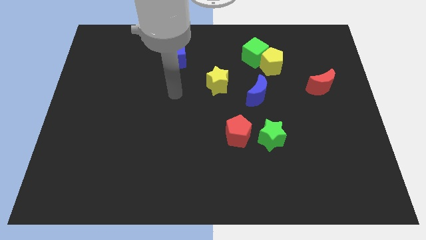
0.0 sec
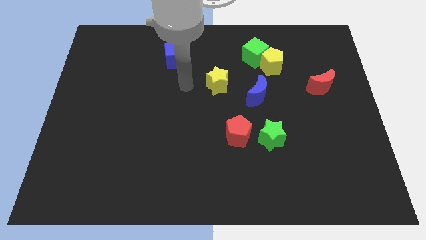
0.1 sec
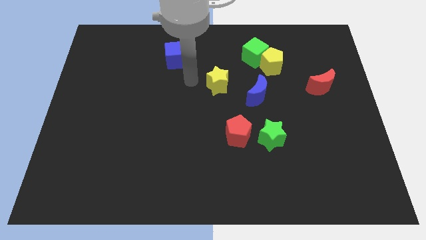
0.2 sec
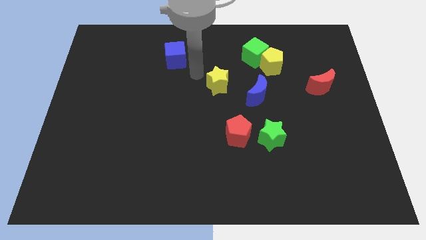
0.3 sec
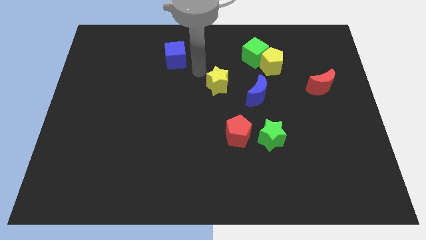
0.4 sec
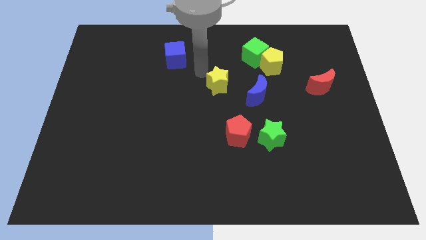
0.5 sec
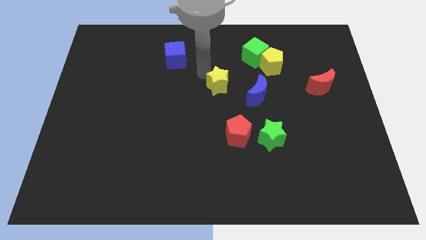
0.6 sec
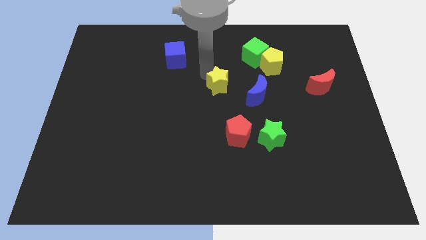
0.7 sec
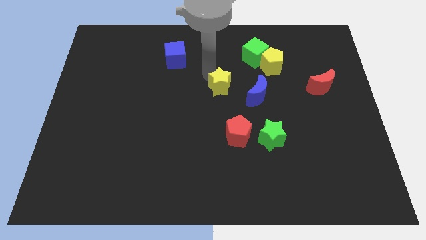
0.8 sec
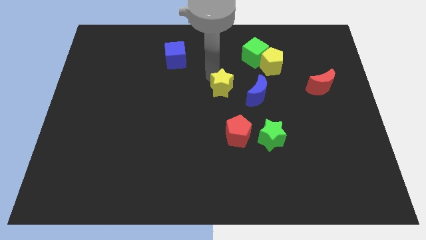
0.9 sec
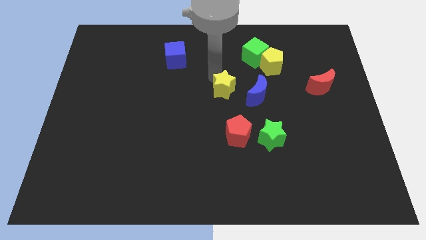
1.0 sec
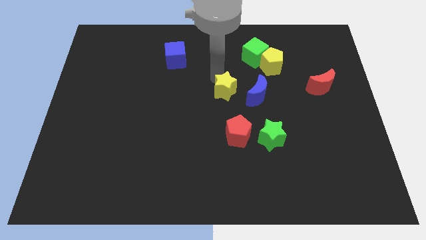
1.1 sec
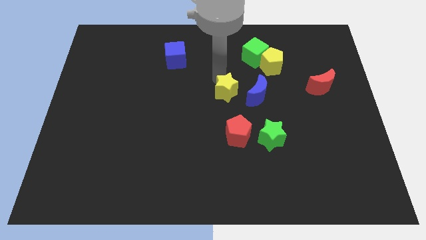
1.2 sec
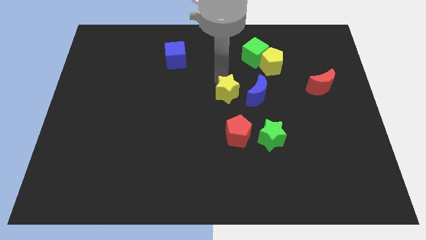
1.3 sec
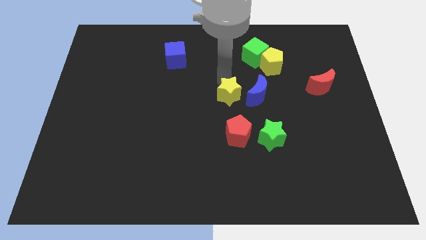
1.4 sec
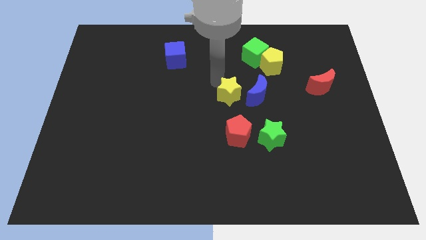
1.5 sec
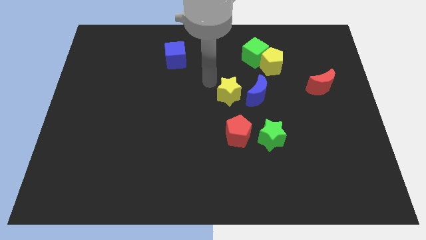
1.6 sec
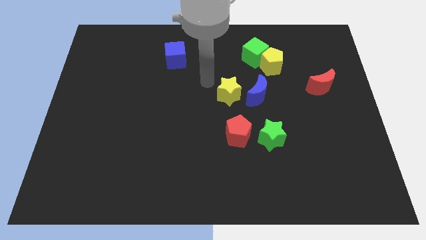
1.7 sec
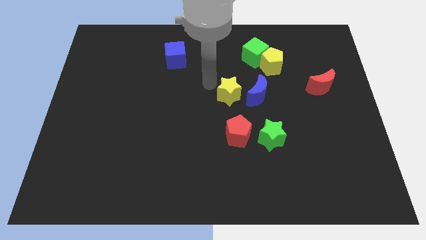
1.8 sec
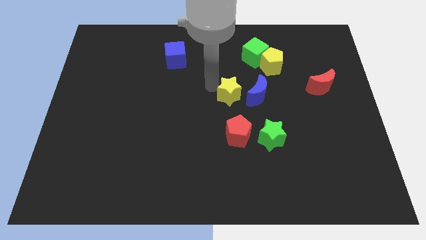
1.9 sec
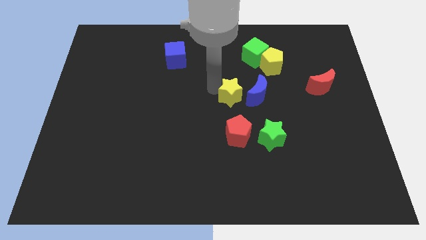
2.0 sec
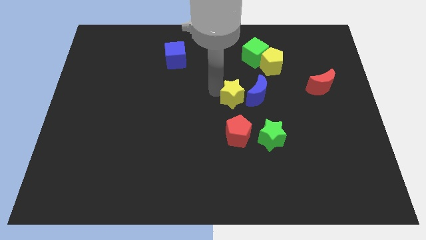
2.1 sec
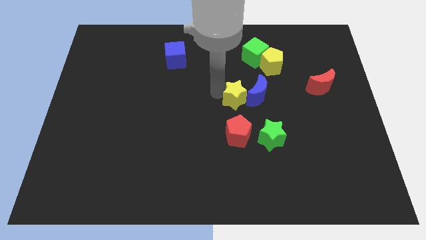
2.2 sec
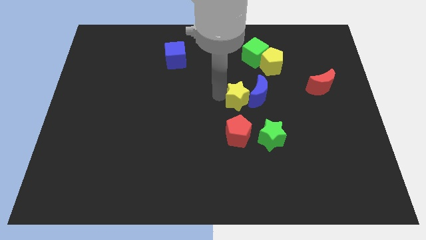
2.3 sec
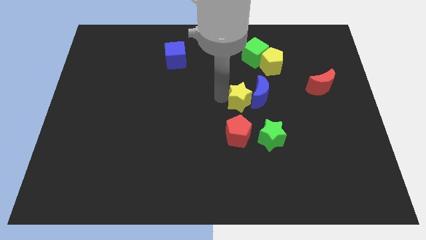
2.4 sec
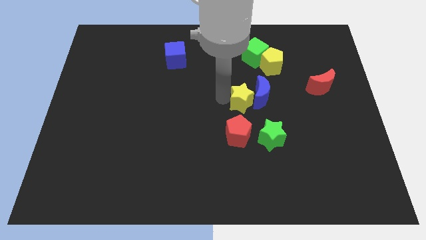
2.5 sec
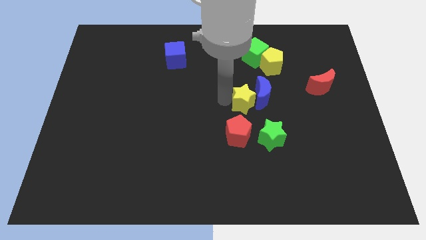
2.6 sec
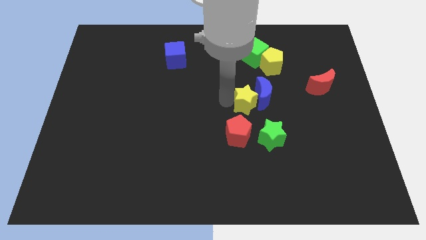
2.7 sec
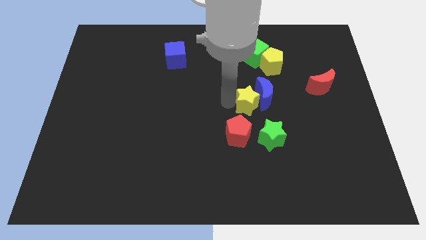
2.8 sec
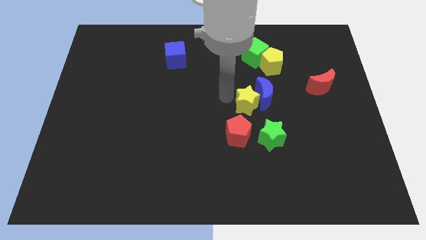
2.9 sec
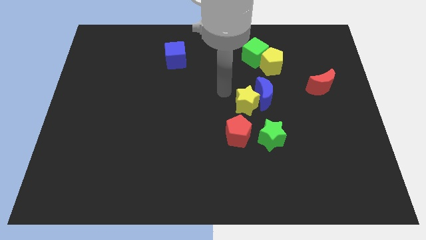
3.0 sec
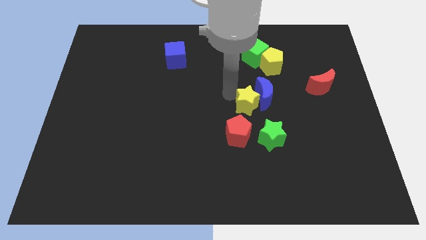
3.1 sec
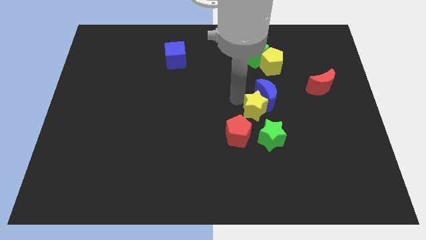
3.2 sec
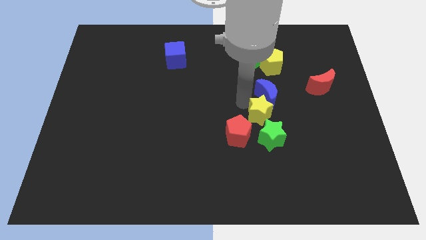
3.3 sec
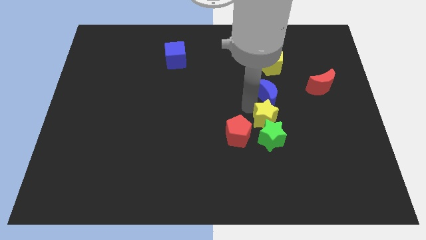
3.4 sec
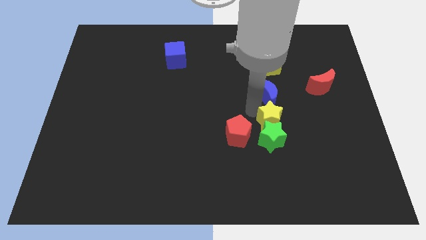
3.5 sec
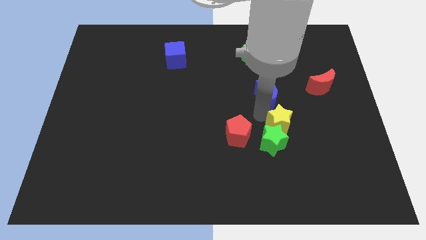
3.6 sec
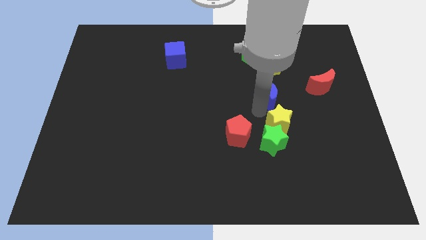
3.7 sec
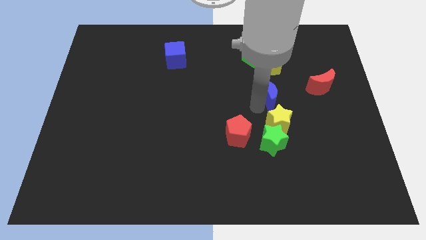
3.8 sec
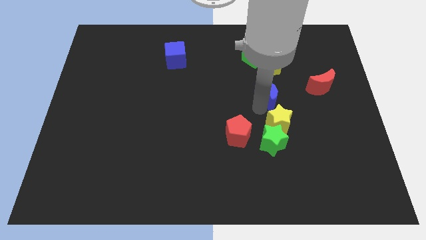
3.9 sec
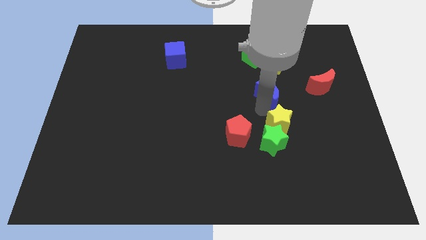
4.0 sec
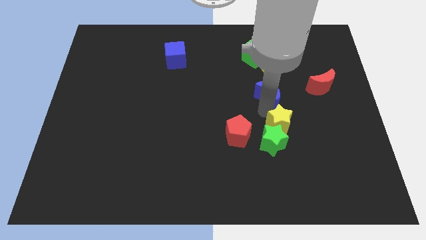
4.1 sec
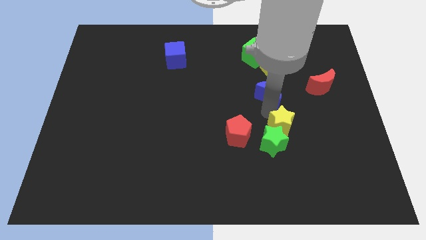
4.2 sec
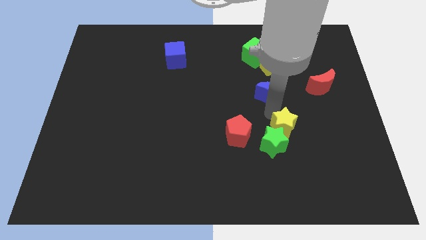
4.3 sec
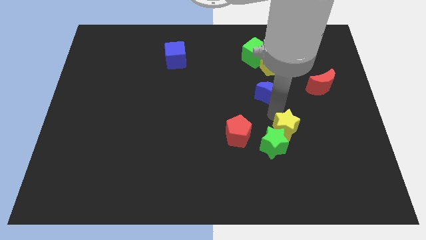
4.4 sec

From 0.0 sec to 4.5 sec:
move the yellow star down and then right

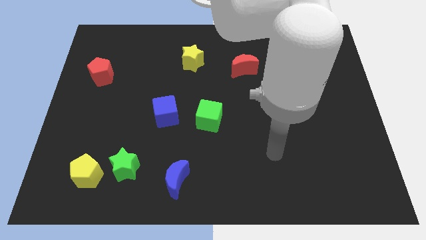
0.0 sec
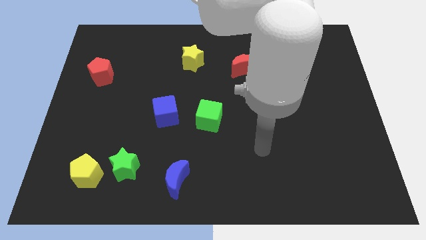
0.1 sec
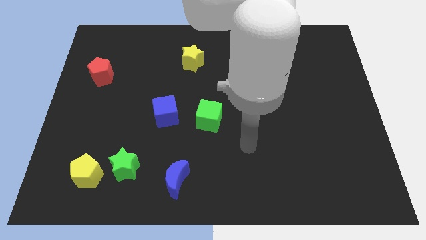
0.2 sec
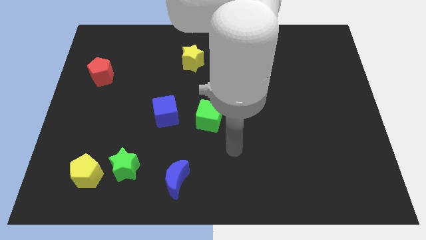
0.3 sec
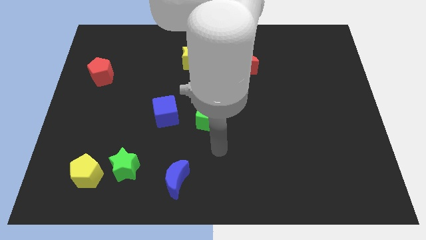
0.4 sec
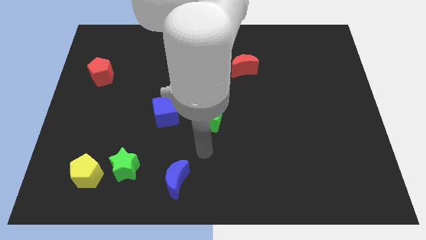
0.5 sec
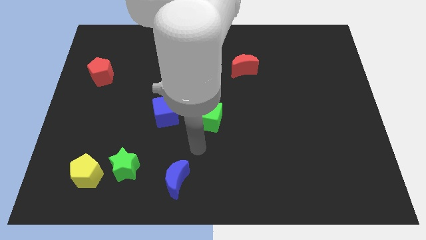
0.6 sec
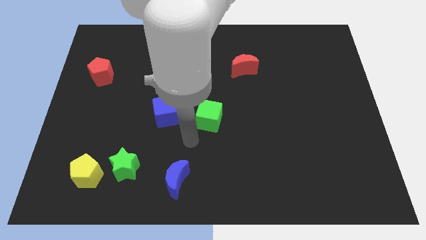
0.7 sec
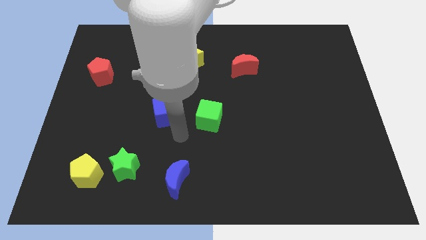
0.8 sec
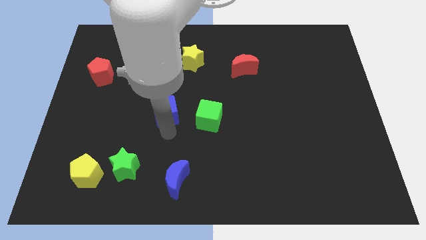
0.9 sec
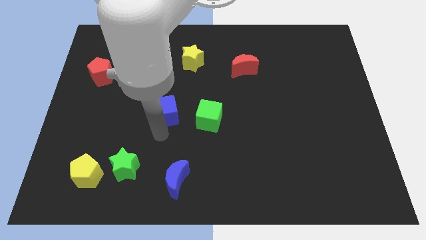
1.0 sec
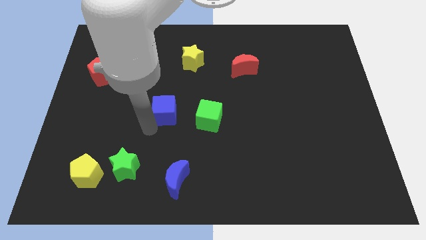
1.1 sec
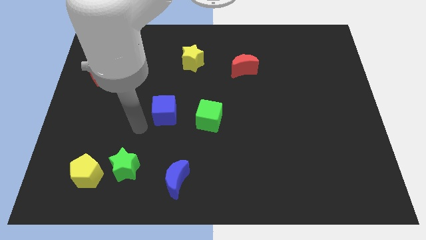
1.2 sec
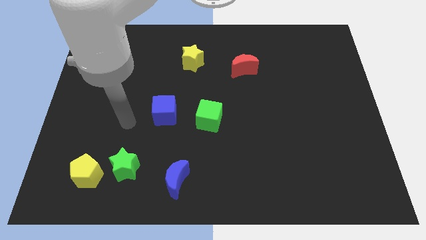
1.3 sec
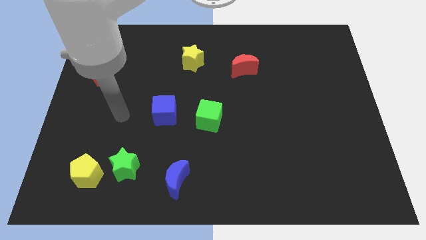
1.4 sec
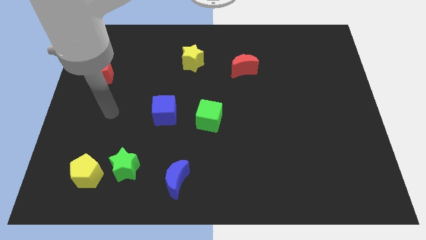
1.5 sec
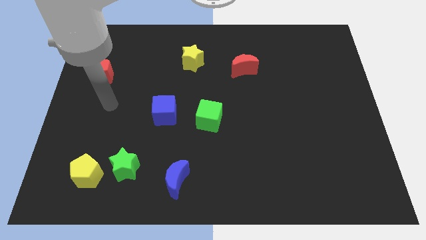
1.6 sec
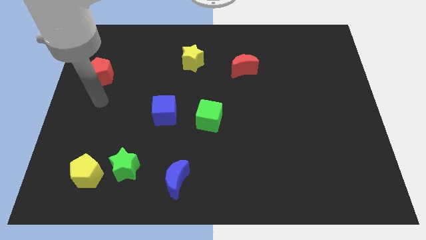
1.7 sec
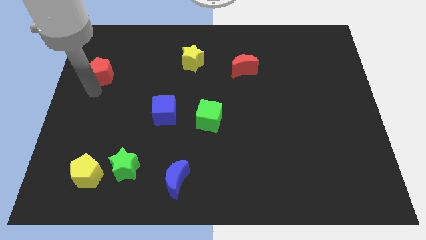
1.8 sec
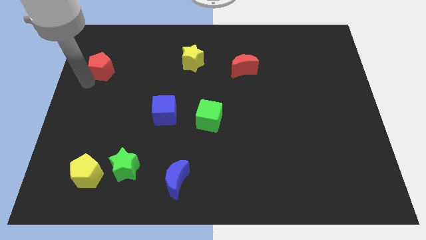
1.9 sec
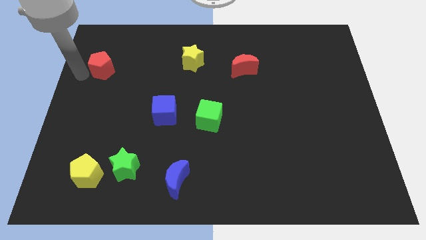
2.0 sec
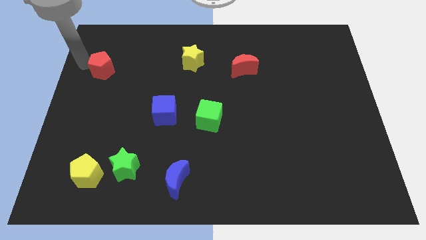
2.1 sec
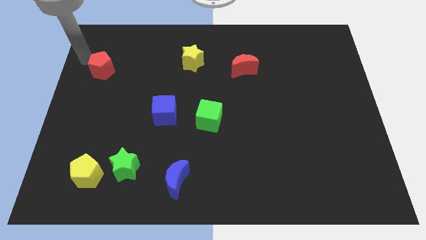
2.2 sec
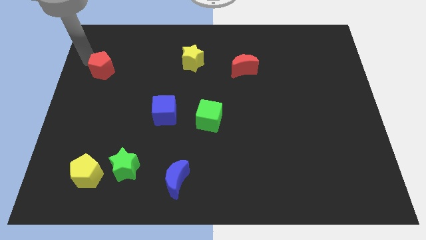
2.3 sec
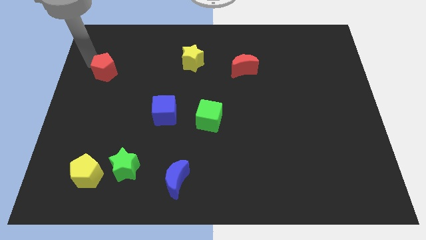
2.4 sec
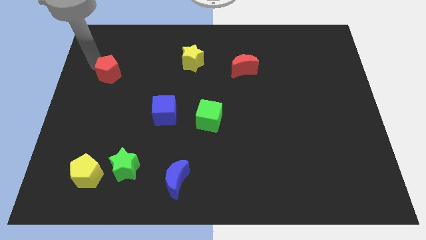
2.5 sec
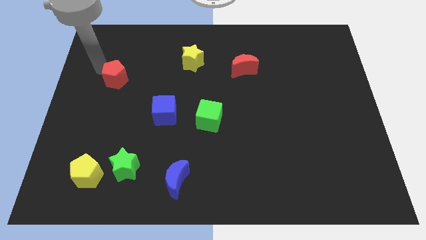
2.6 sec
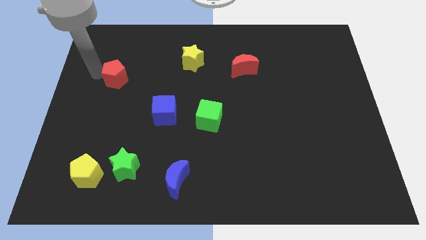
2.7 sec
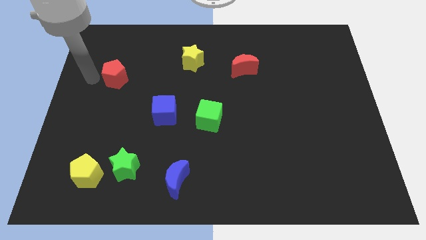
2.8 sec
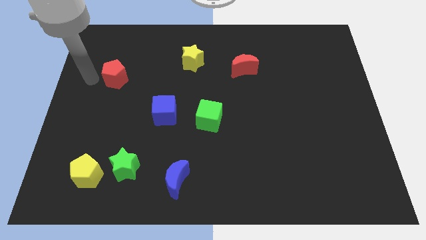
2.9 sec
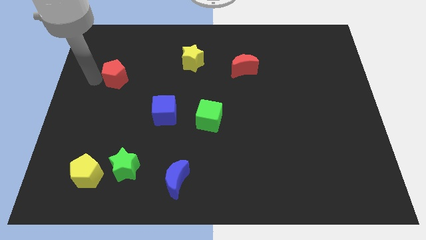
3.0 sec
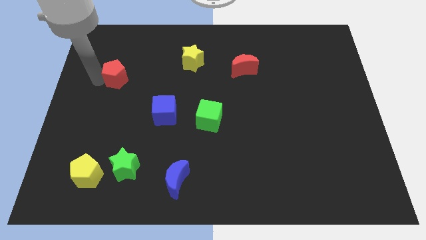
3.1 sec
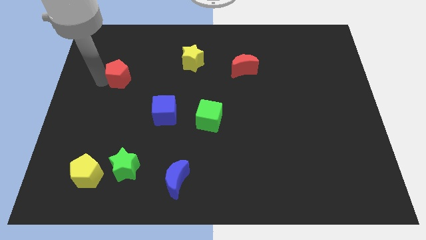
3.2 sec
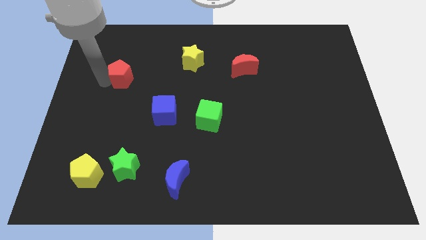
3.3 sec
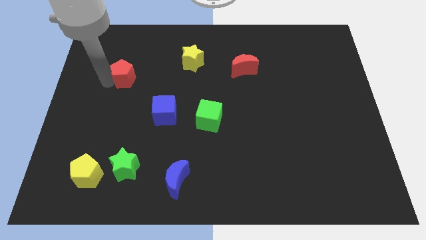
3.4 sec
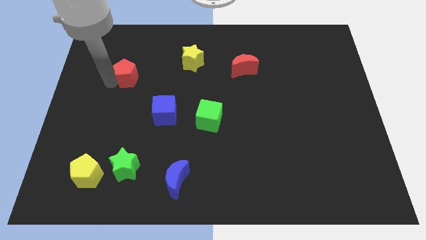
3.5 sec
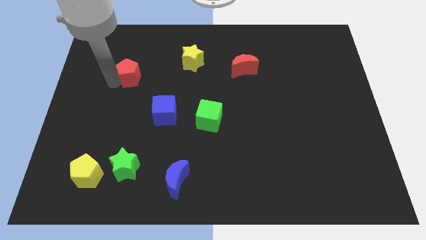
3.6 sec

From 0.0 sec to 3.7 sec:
slightly push the red pentagon to the right
